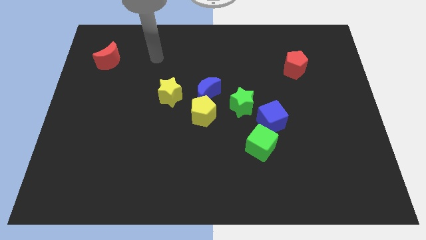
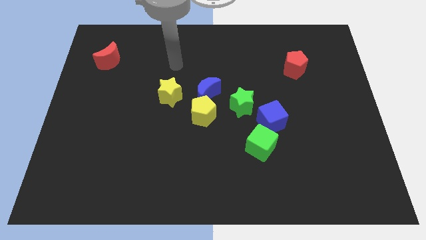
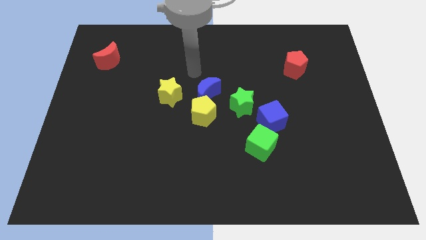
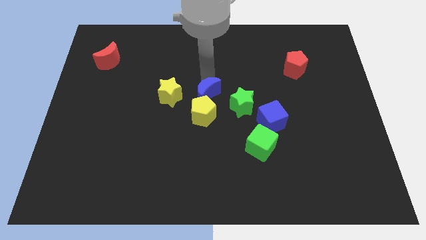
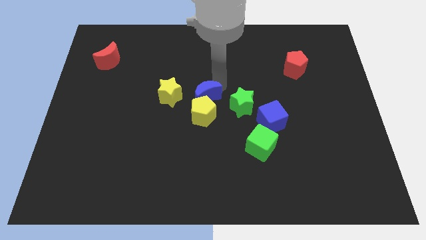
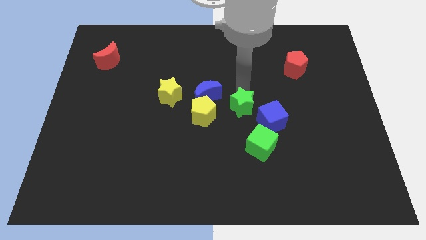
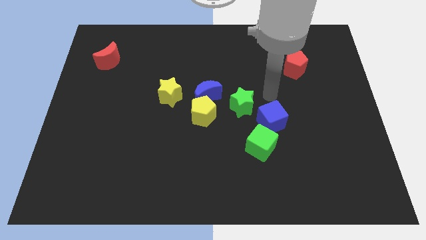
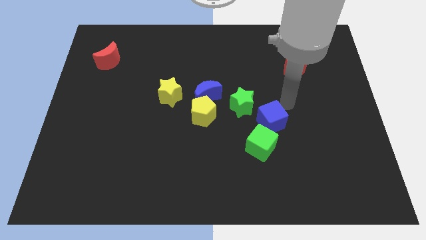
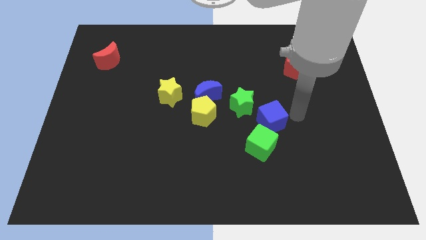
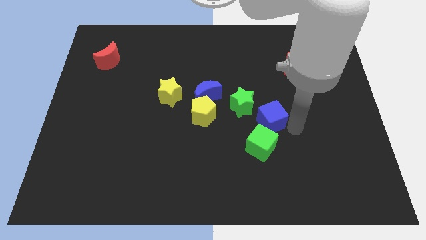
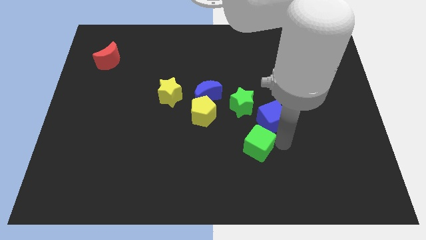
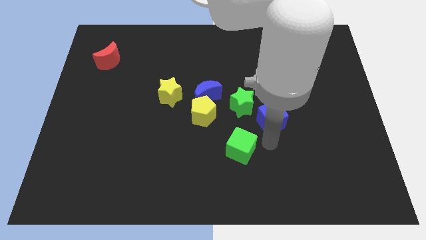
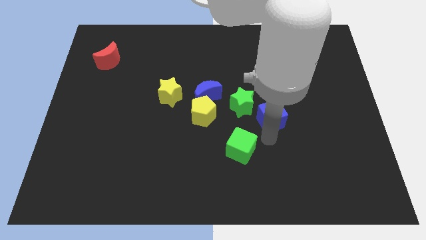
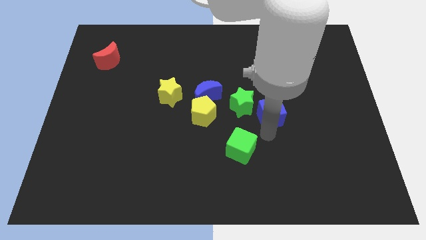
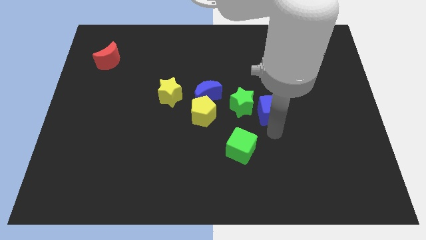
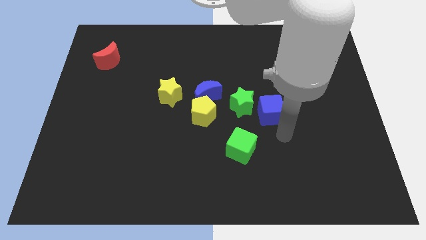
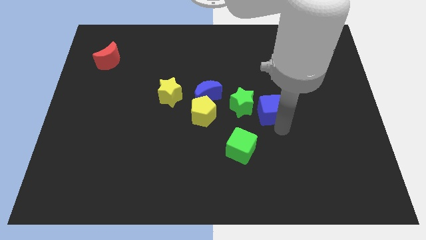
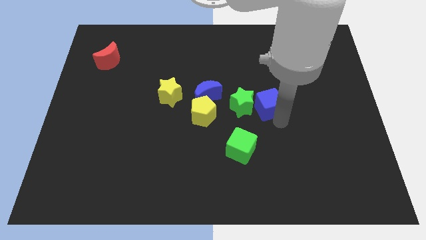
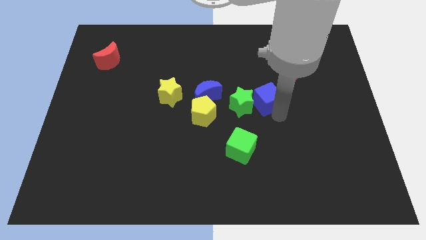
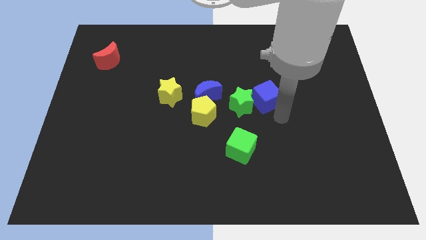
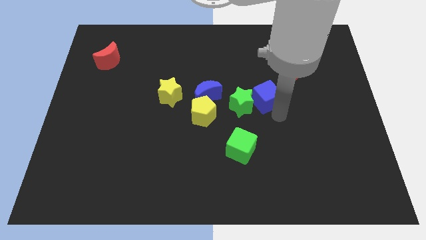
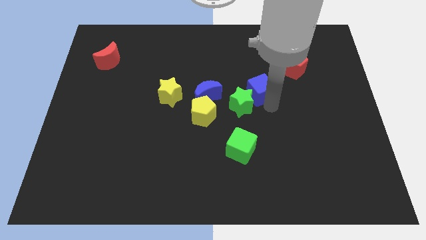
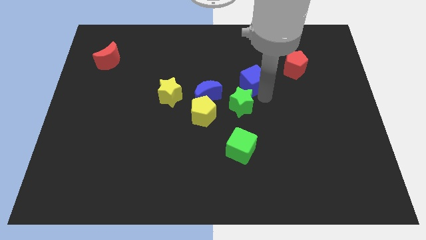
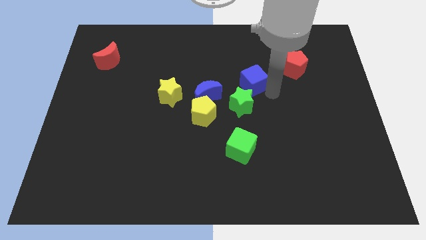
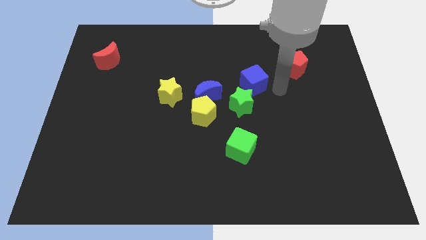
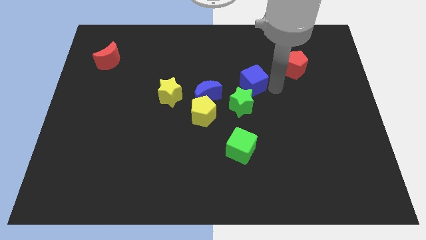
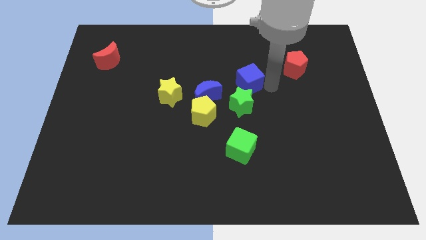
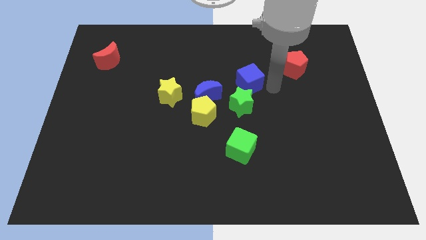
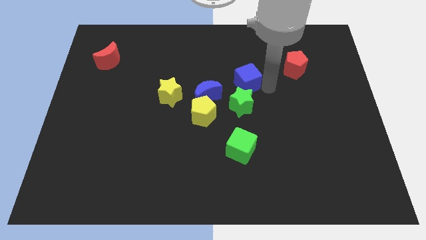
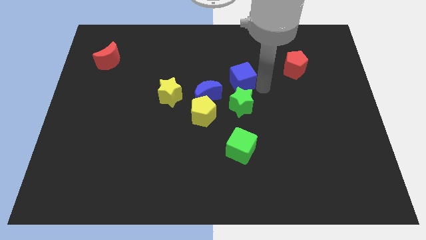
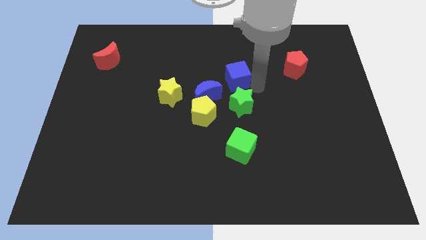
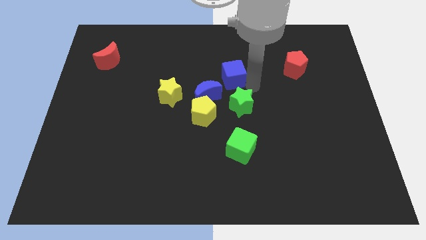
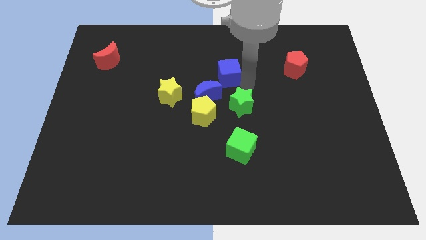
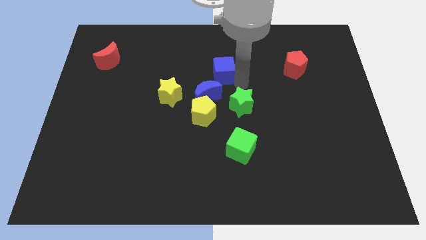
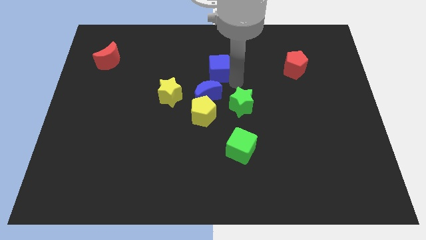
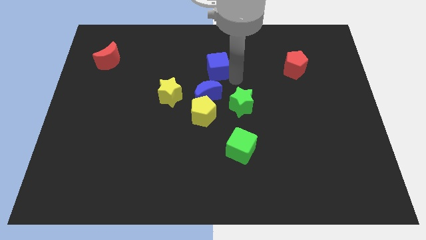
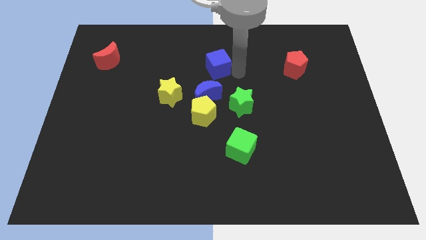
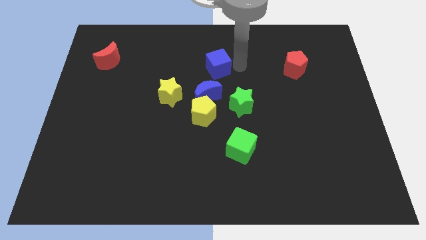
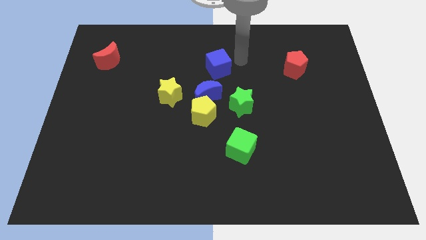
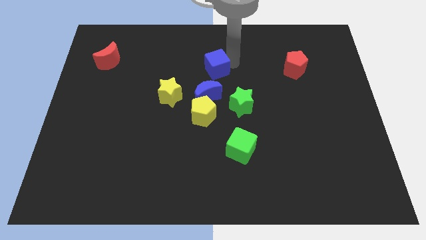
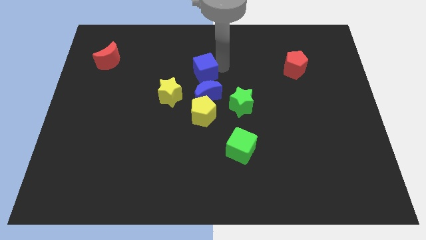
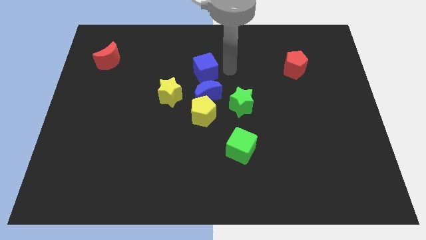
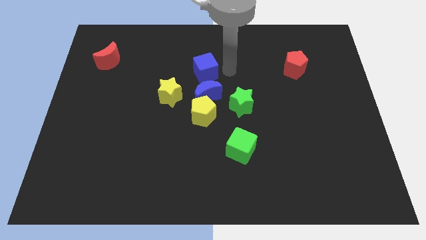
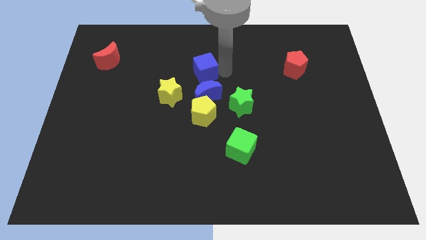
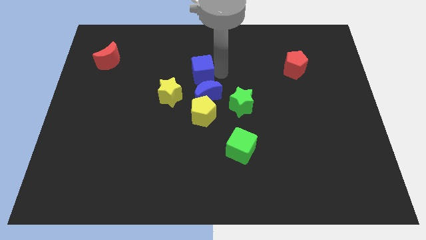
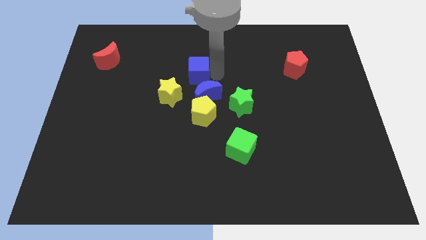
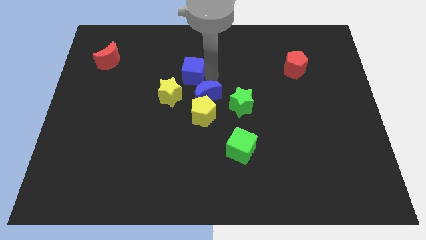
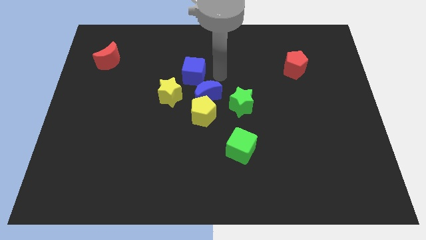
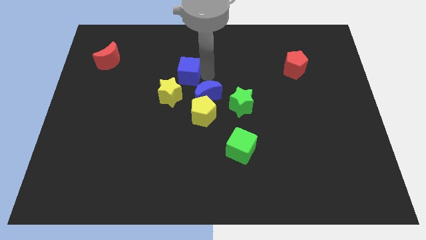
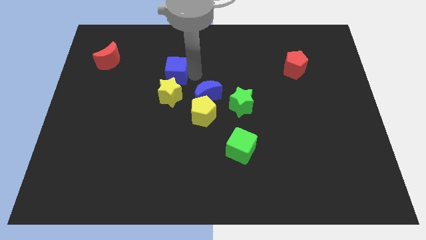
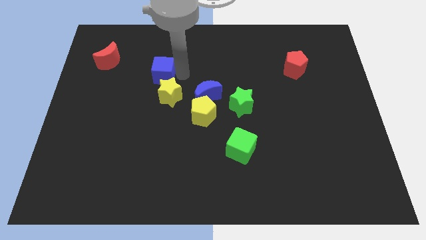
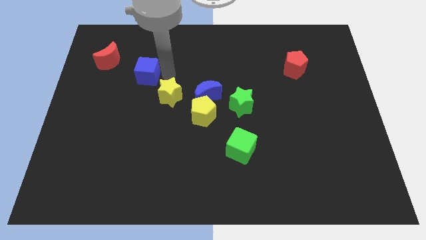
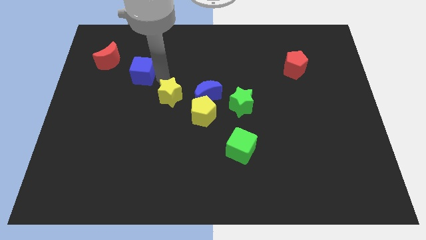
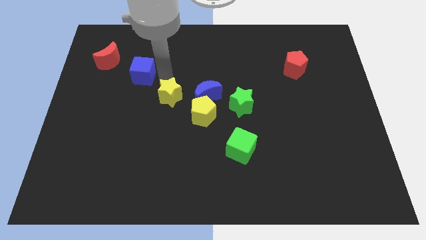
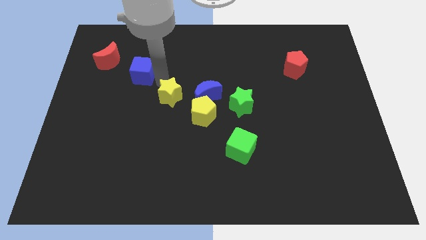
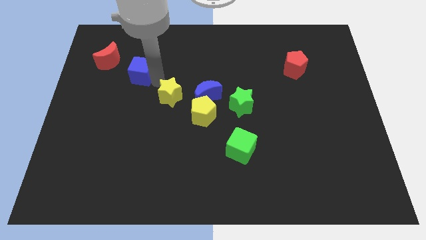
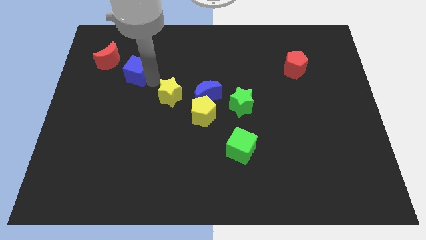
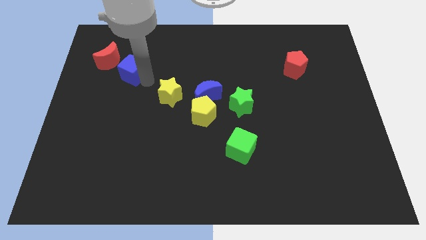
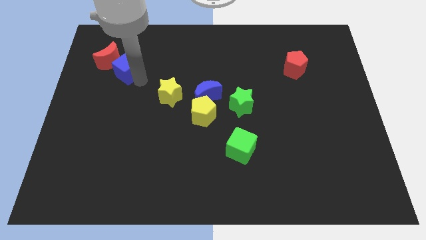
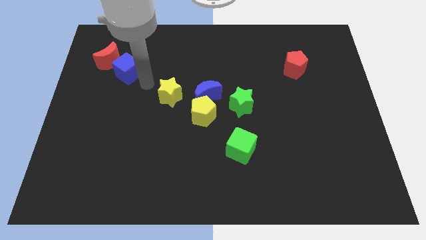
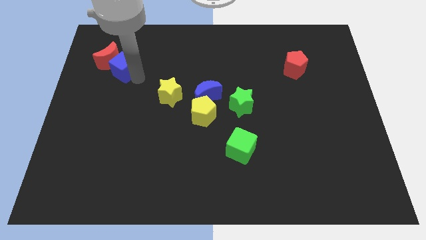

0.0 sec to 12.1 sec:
put the blue cube next to the red moon

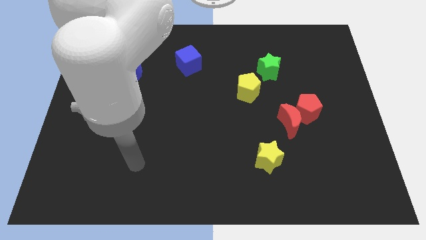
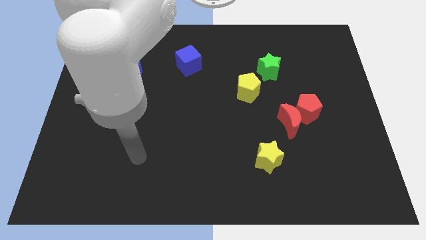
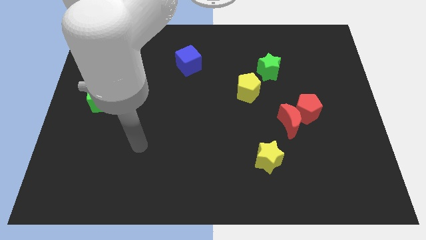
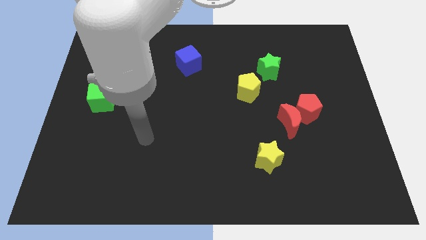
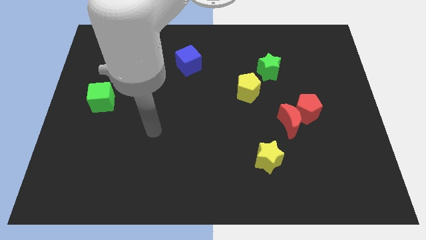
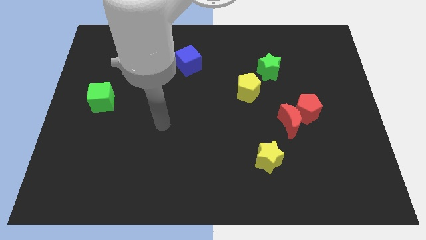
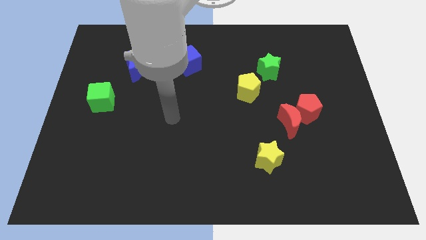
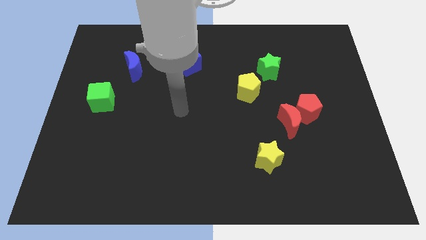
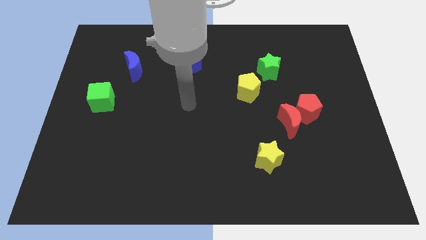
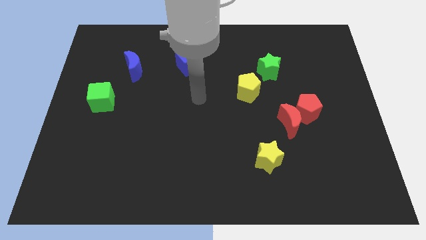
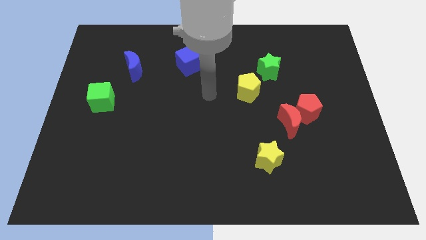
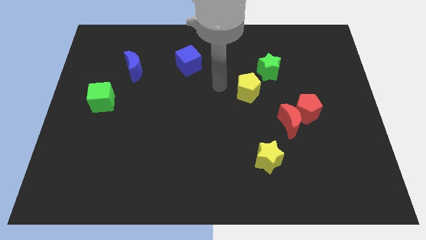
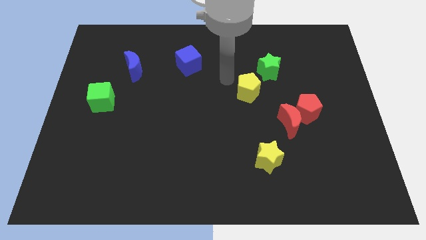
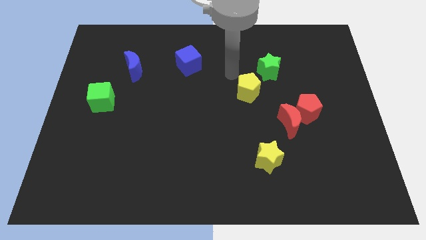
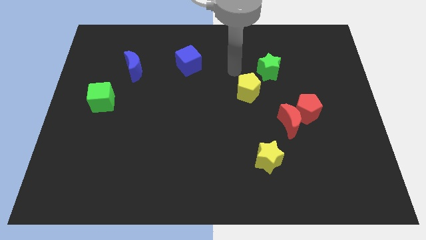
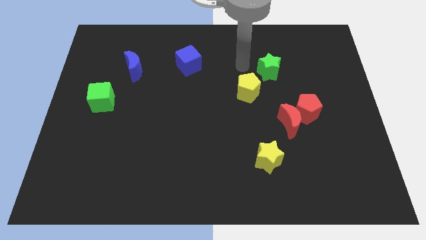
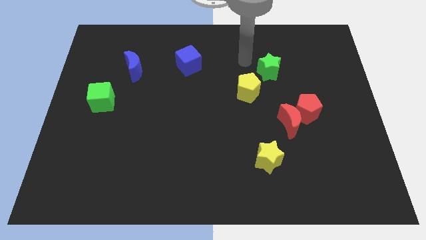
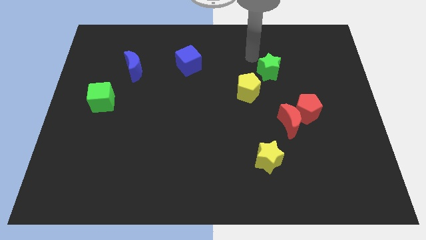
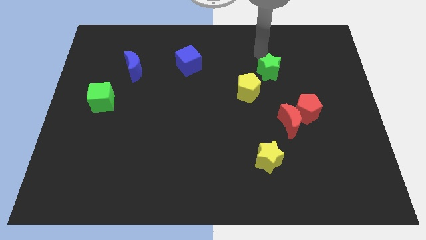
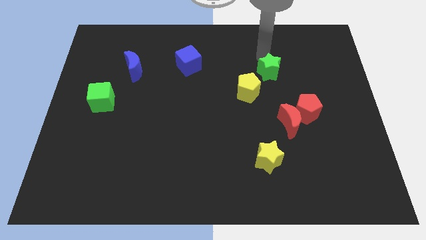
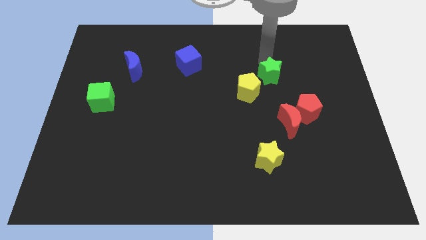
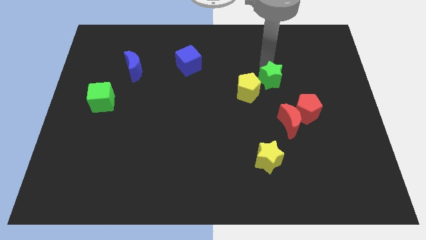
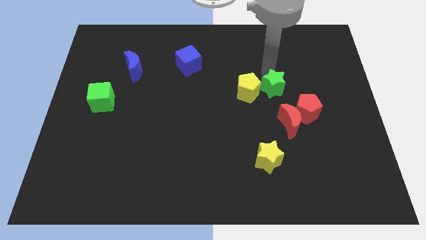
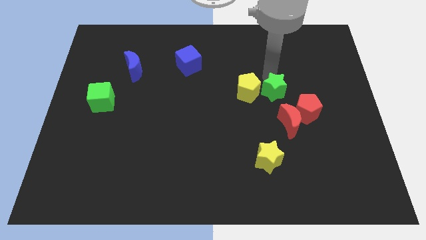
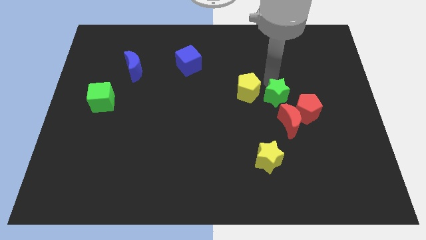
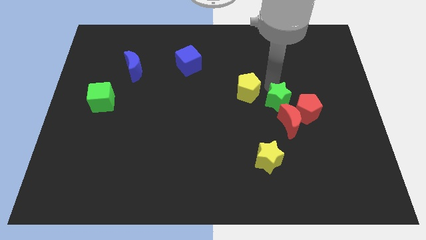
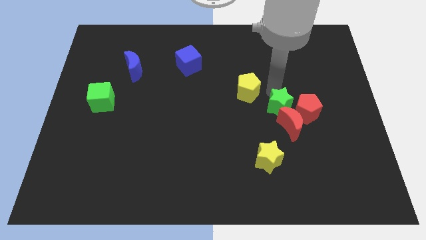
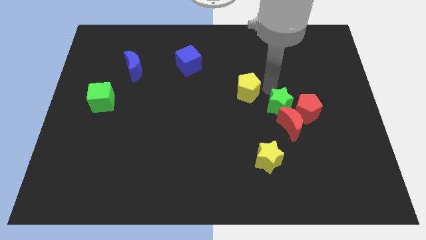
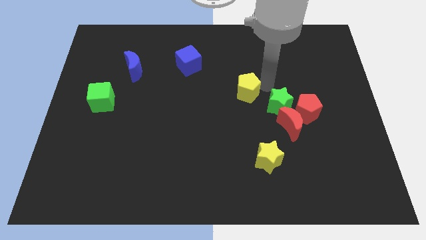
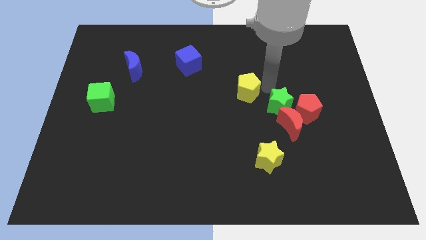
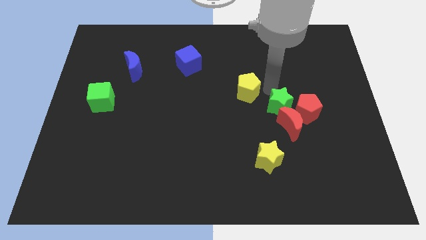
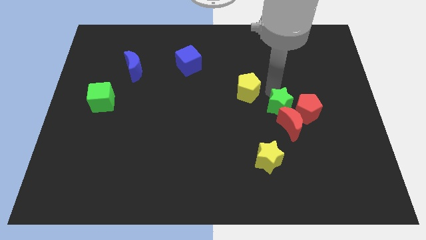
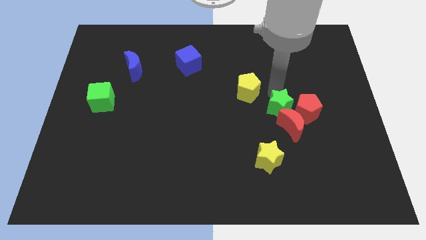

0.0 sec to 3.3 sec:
put the green star towards the red moon
